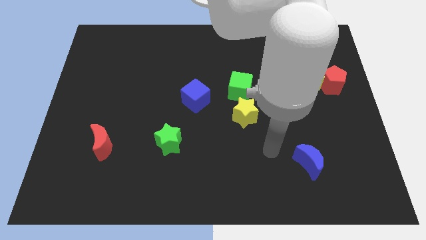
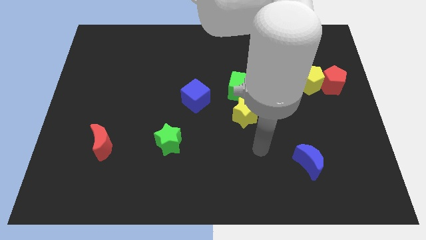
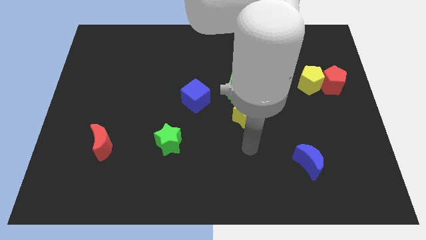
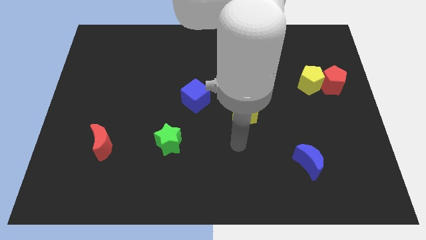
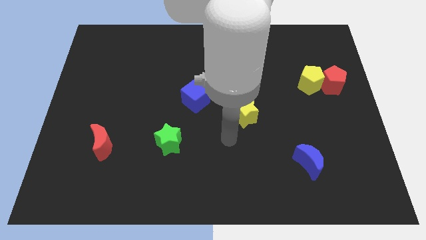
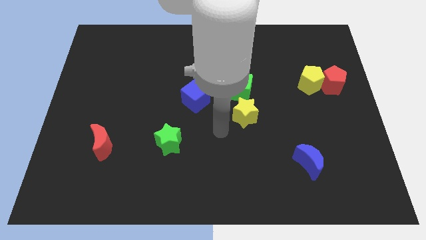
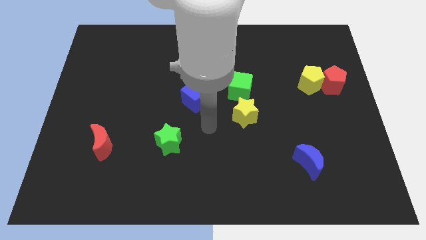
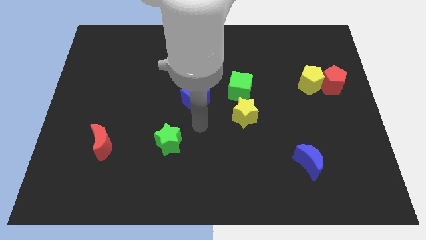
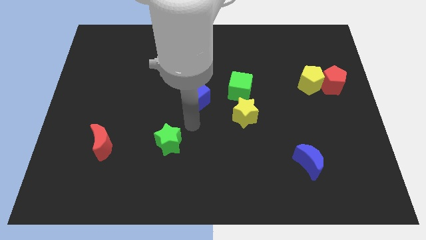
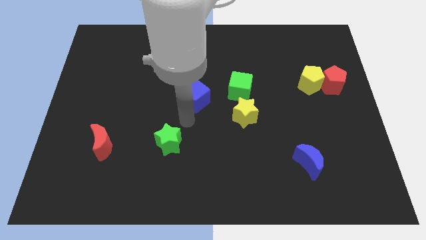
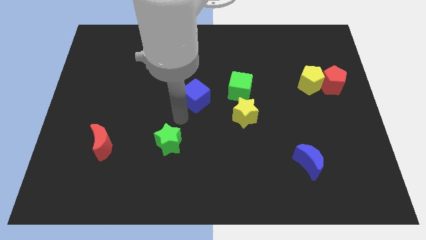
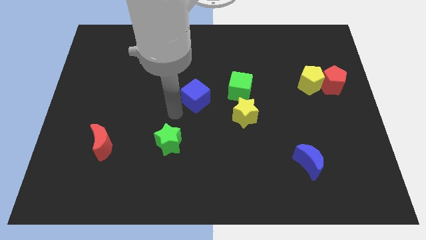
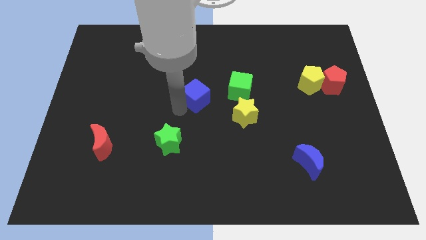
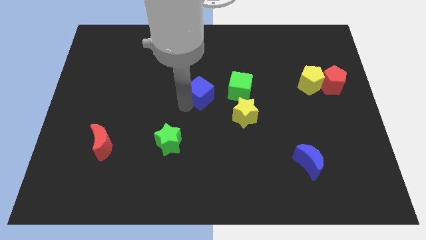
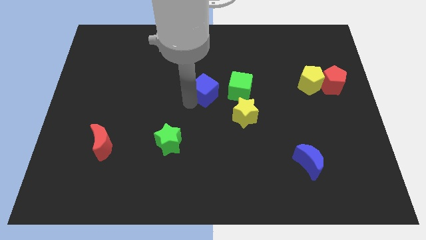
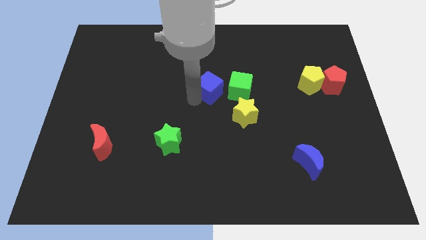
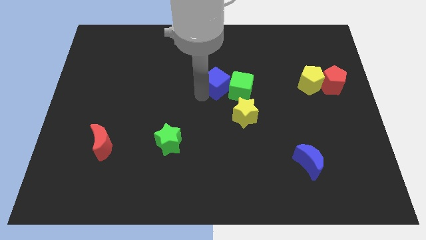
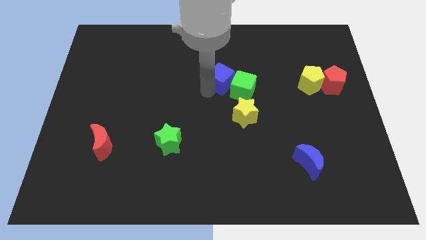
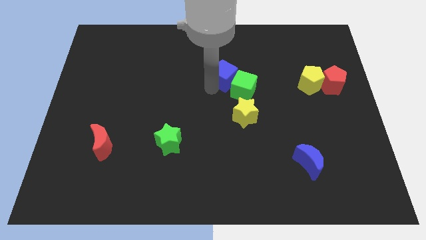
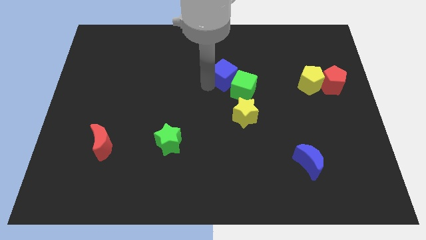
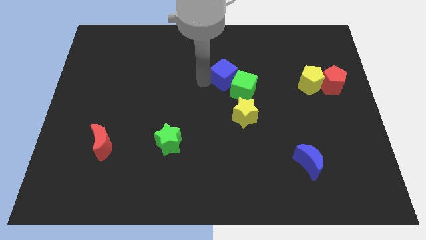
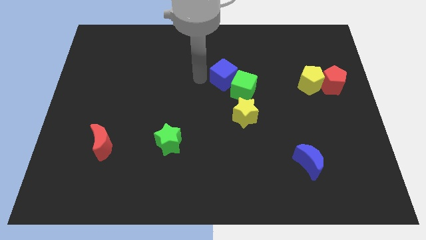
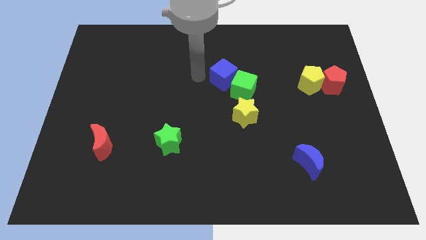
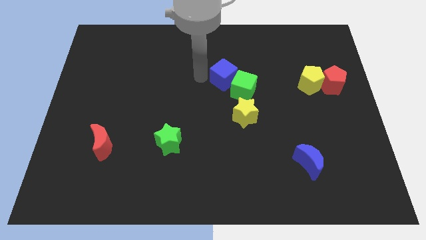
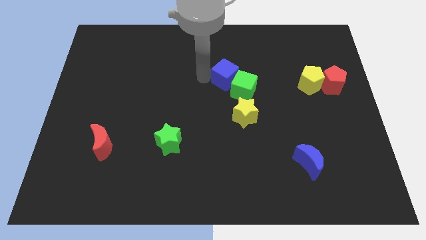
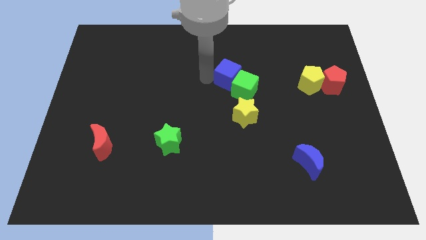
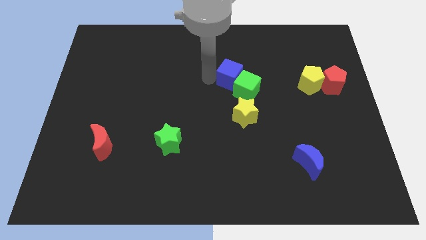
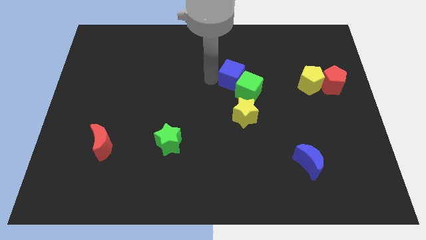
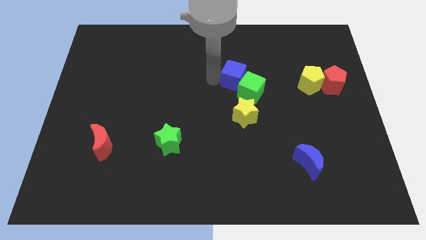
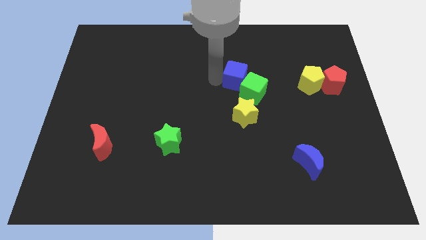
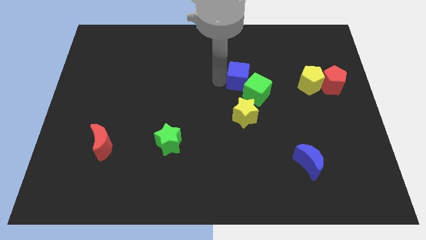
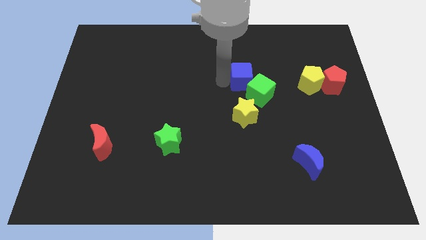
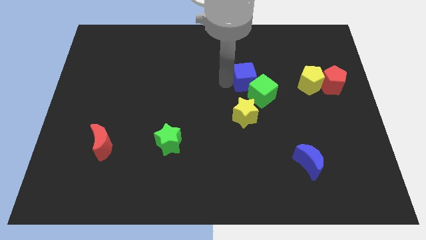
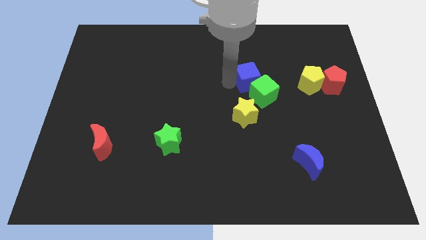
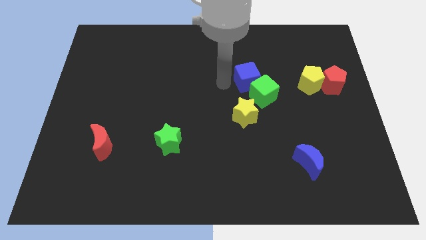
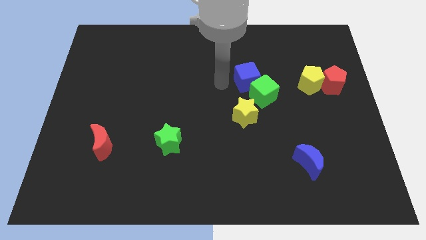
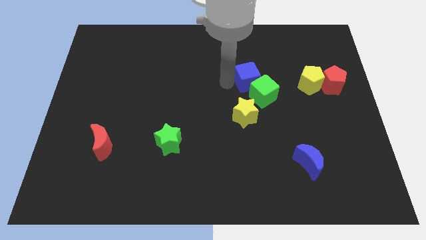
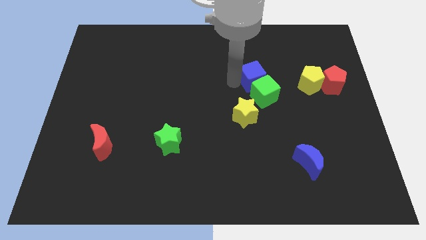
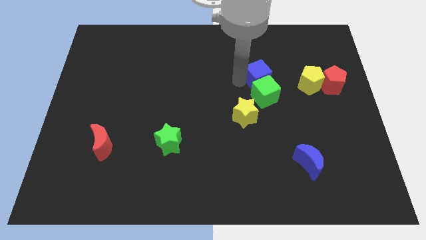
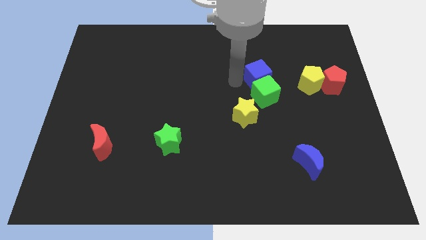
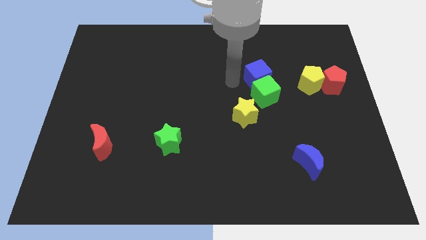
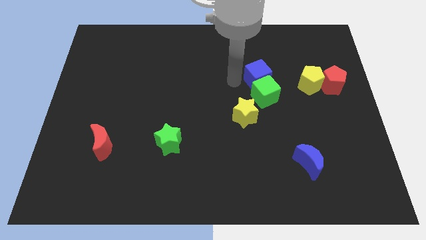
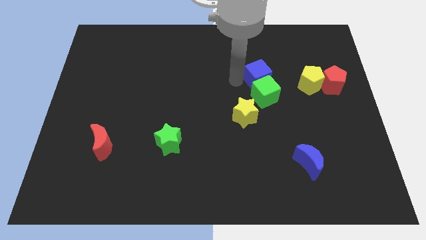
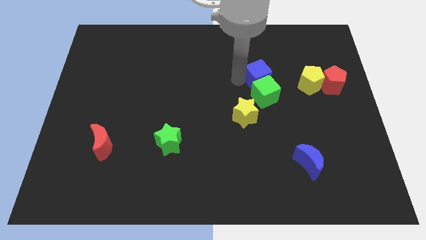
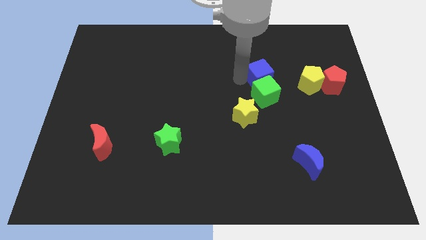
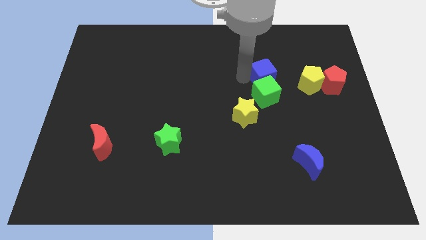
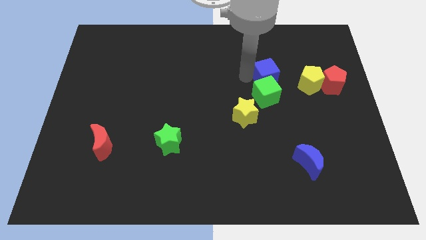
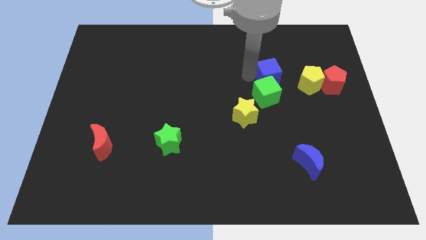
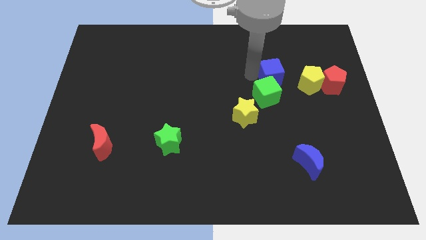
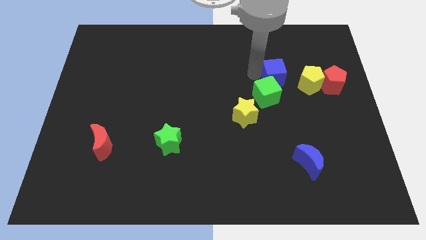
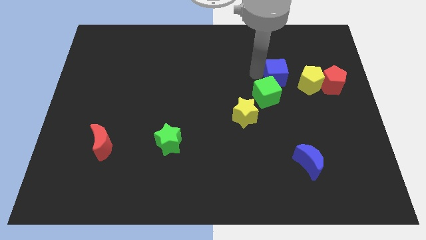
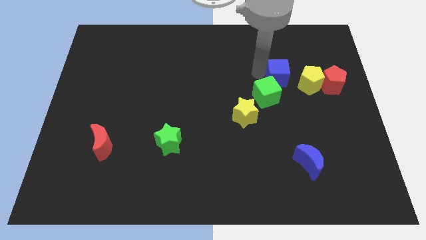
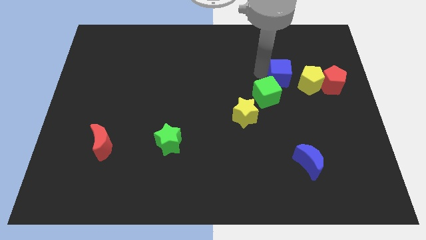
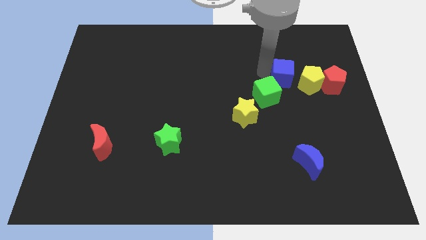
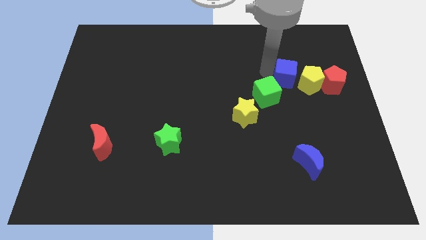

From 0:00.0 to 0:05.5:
slide the blue cube close to the yellow pentagon

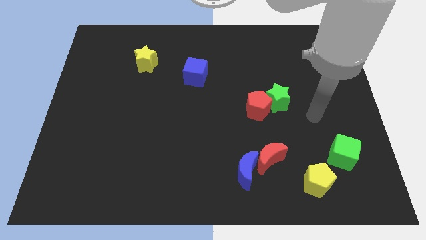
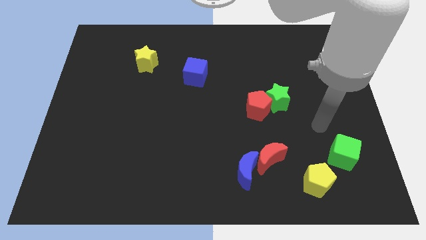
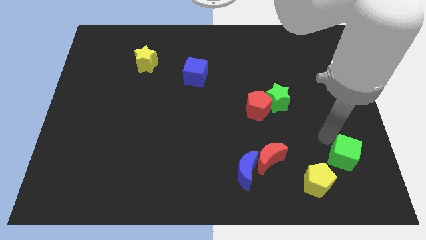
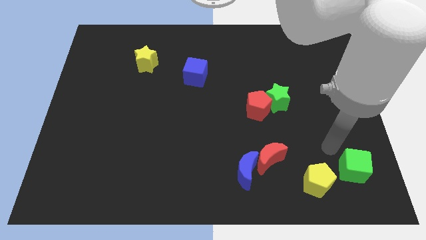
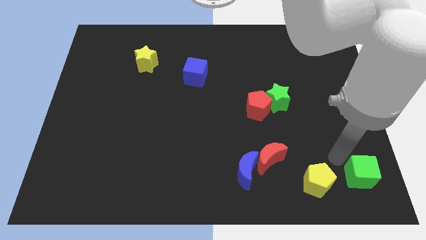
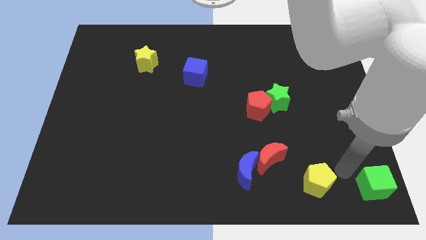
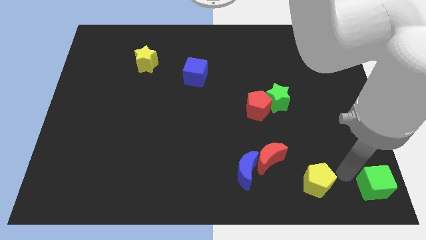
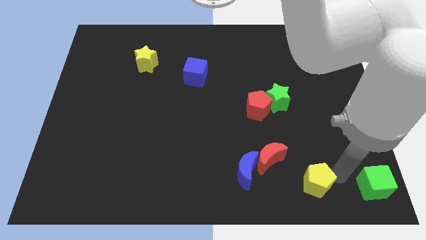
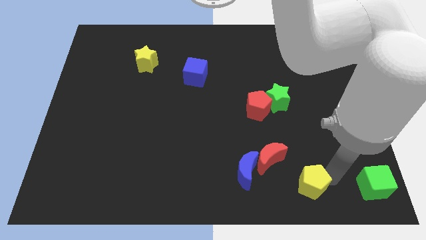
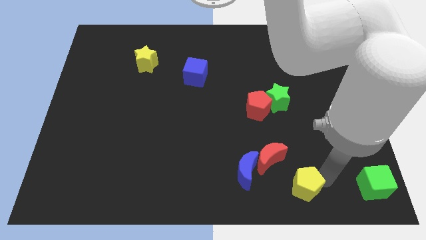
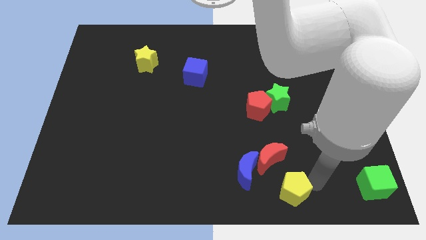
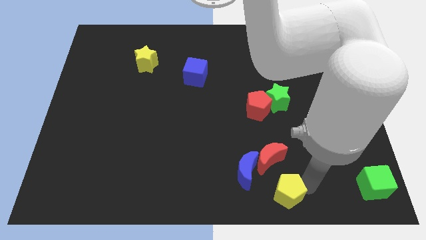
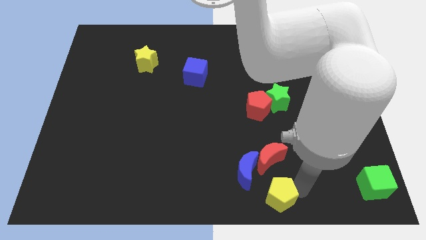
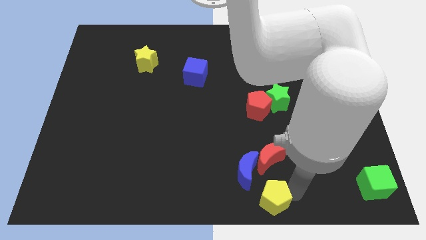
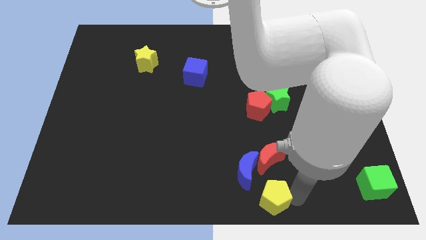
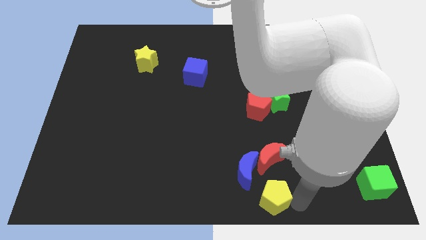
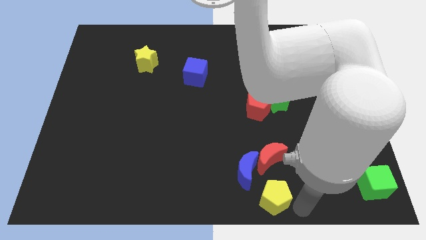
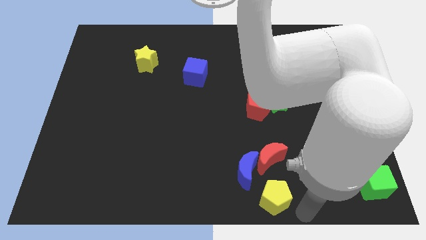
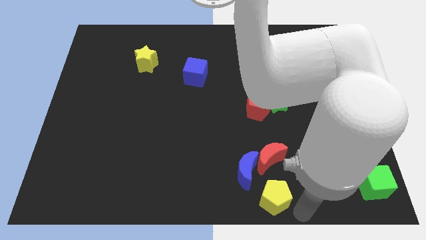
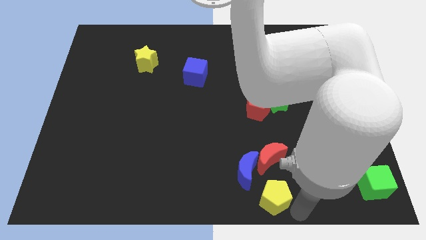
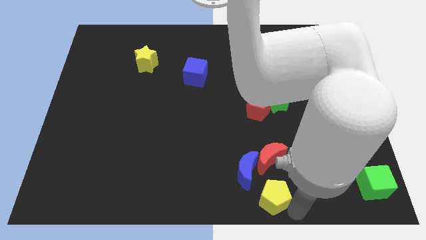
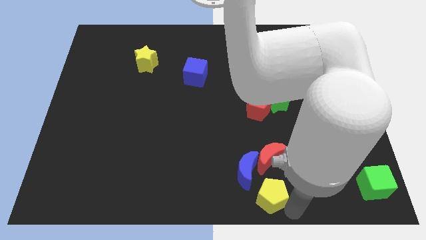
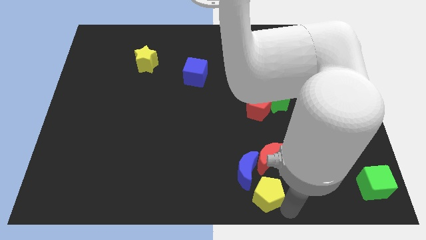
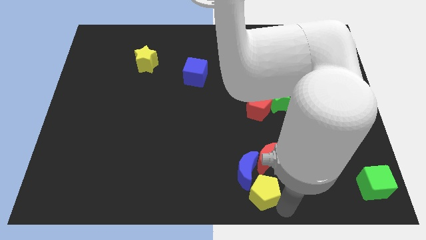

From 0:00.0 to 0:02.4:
put the yellow pentagon to the blue moon
